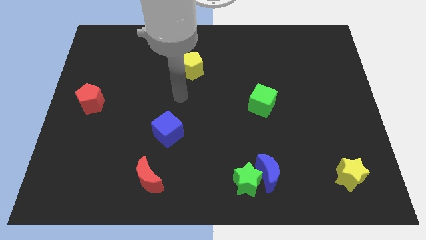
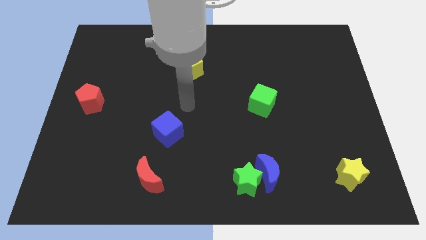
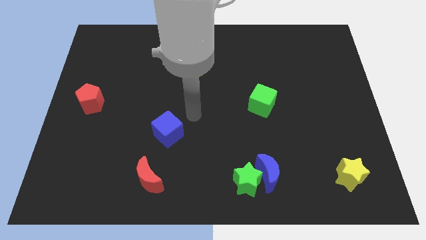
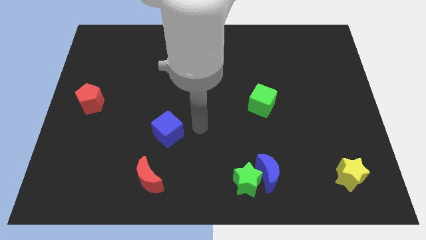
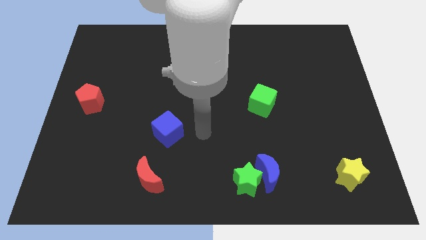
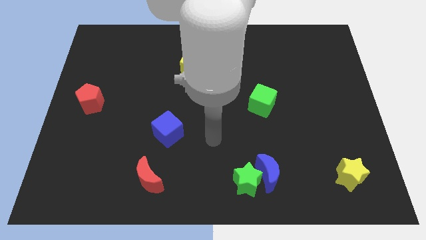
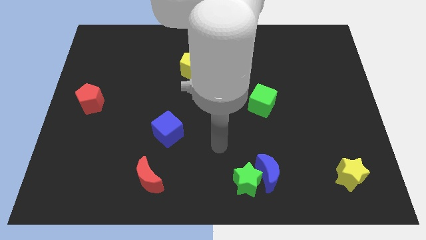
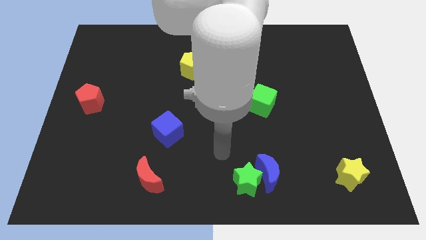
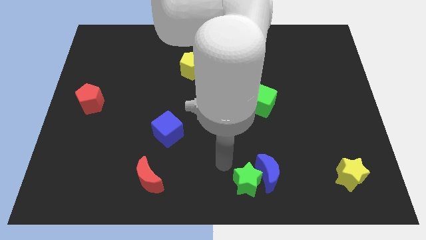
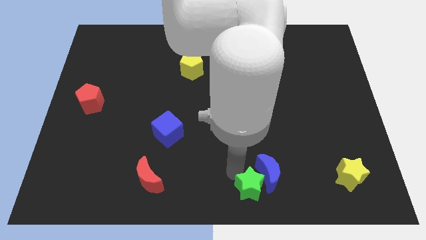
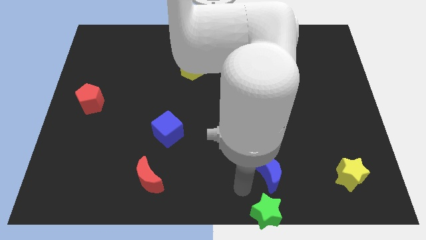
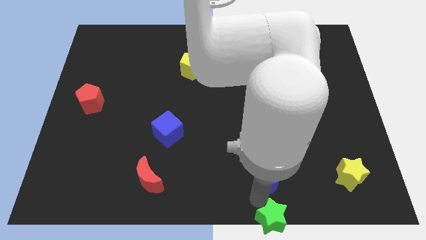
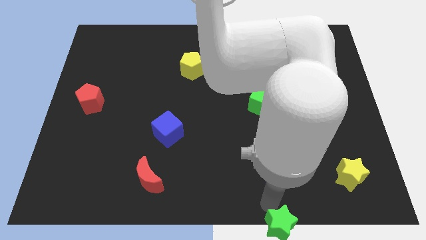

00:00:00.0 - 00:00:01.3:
move the blue moon away from the green star

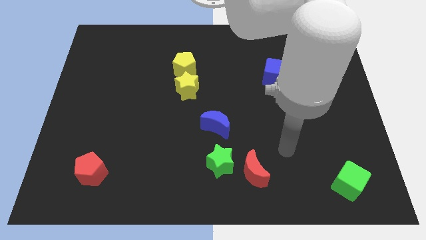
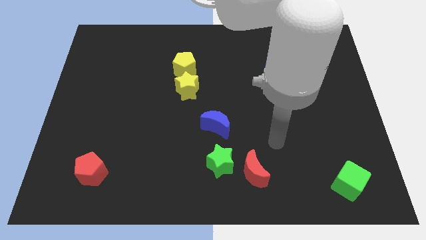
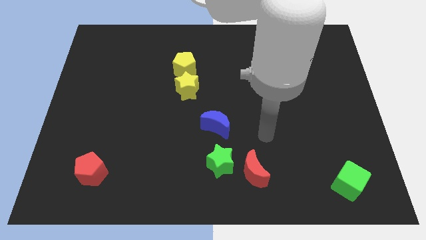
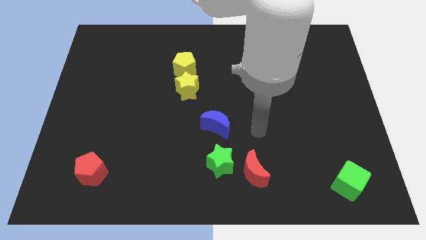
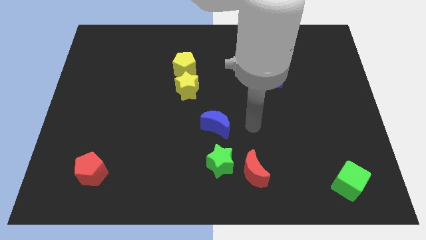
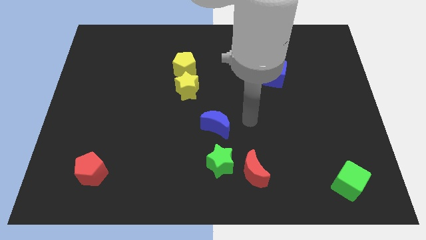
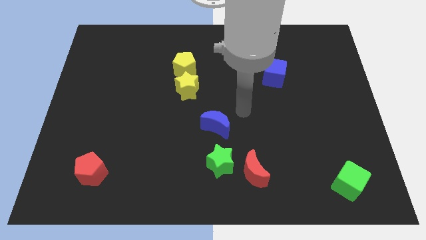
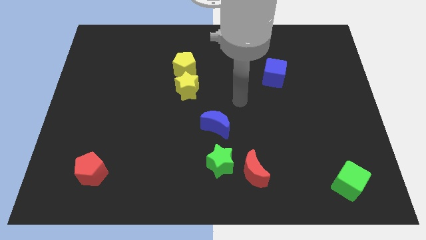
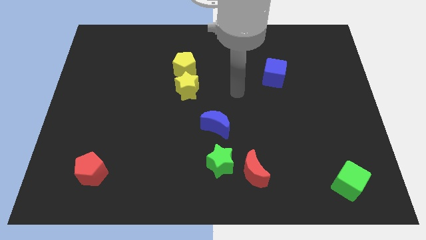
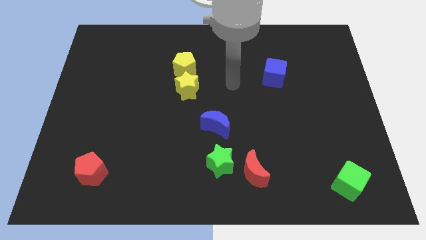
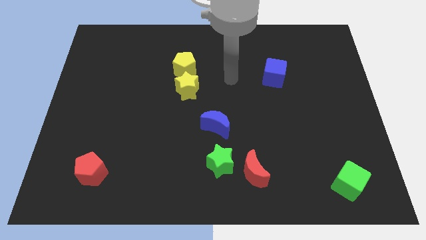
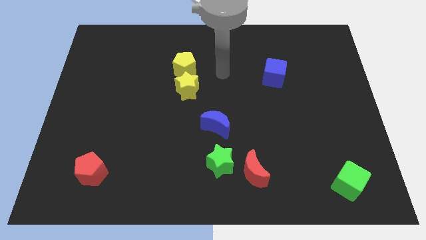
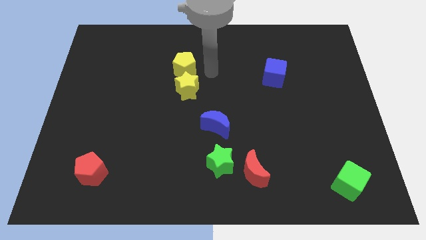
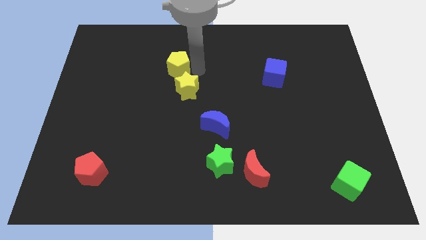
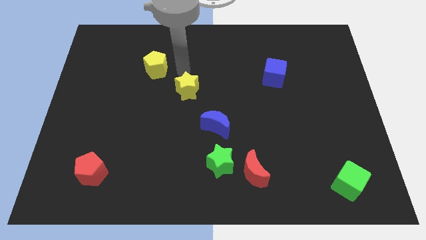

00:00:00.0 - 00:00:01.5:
separate the yellow star from the yellow pentagon

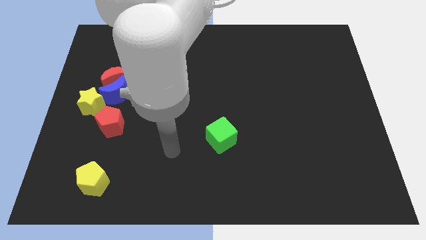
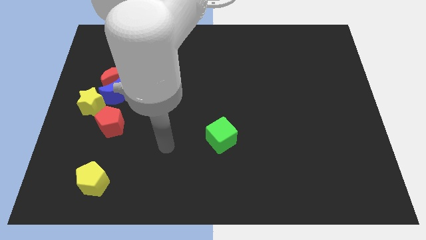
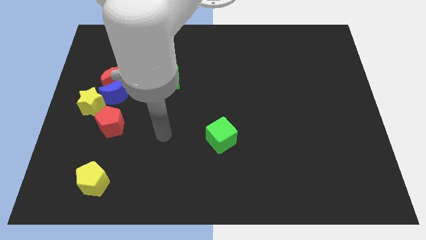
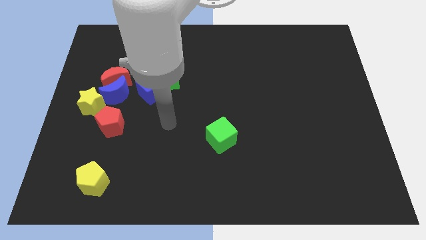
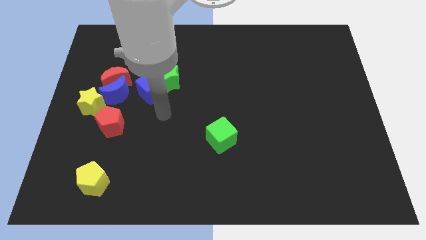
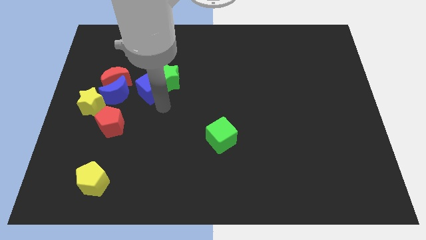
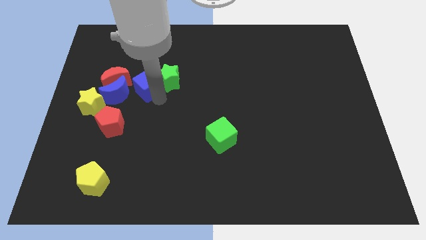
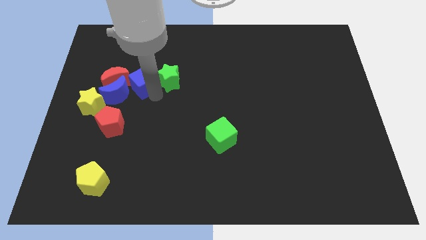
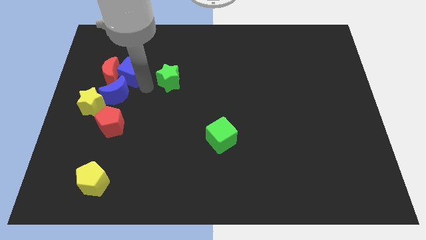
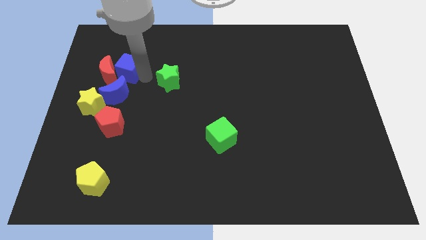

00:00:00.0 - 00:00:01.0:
pull the green star apart from the blue cube

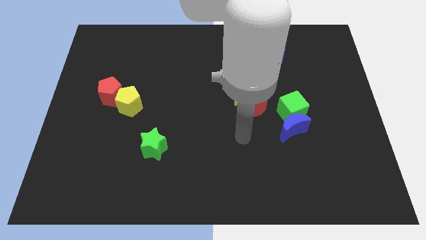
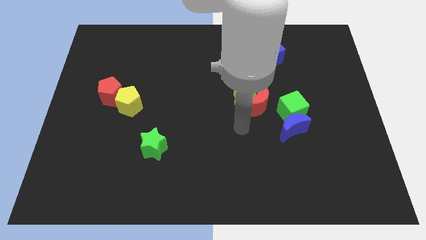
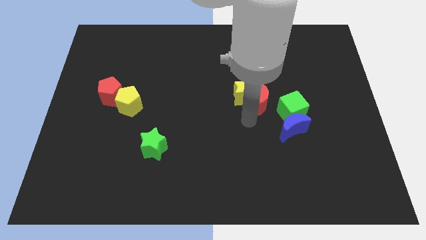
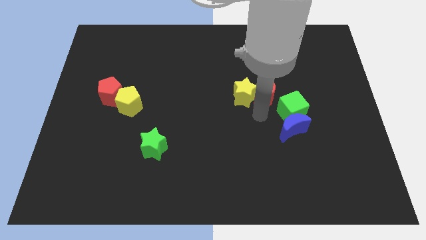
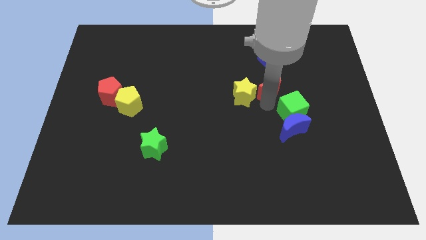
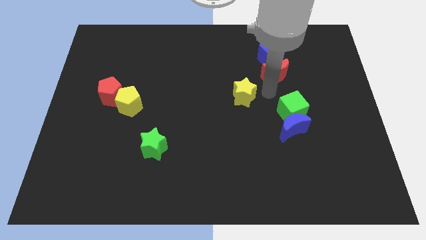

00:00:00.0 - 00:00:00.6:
pull the yellow star apart from the red moon

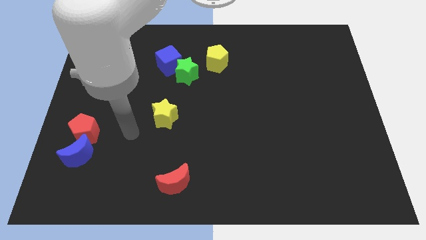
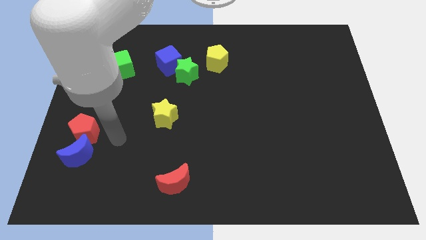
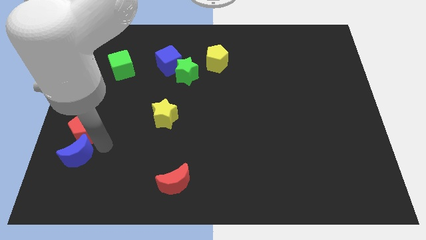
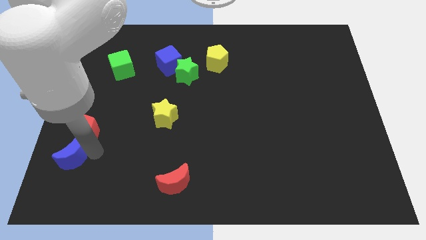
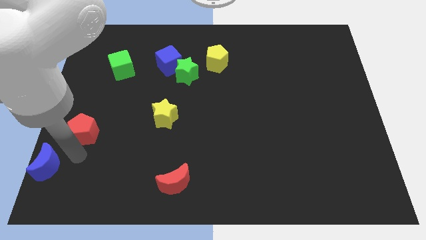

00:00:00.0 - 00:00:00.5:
move the red pentagon away from the blue moon

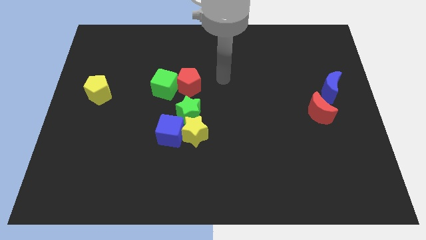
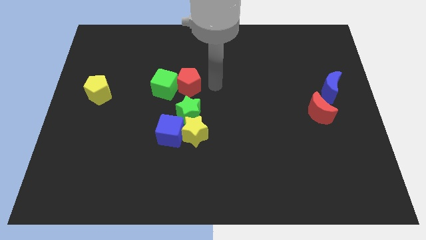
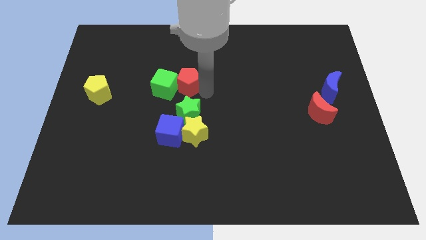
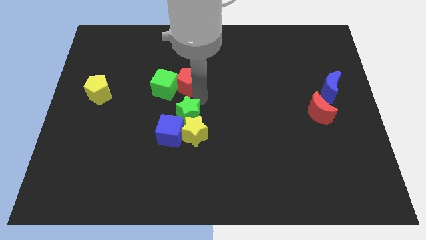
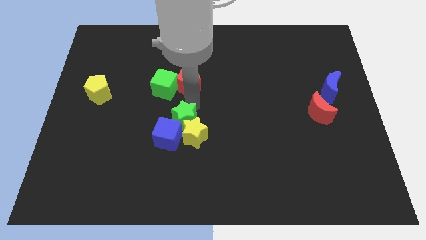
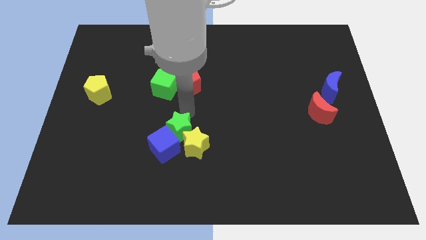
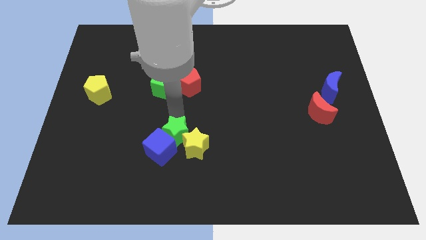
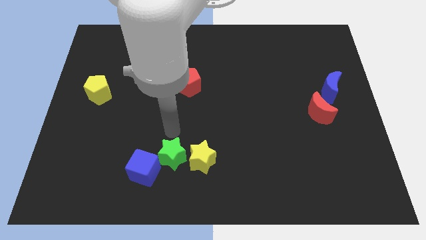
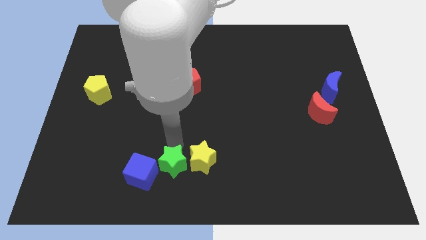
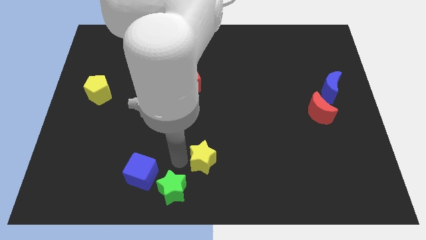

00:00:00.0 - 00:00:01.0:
move the yellow star away from the blue cube and green star

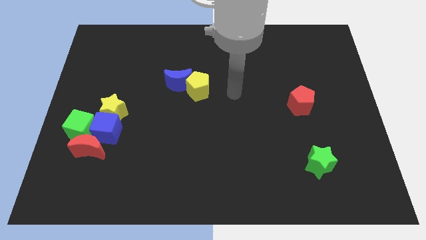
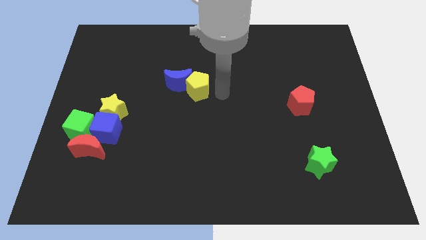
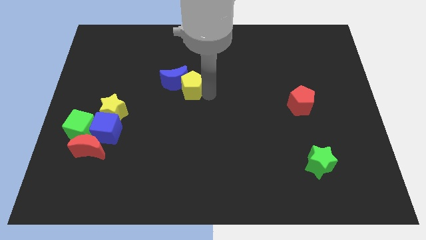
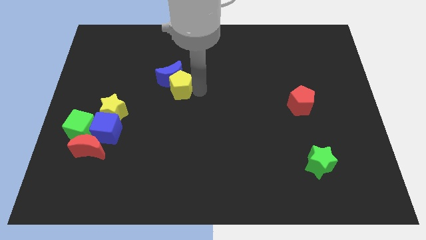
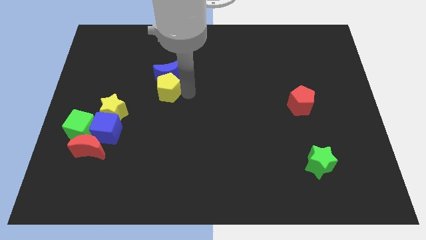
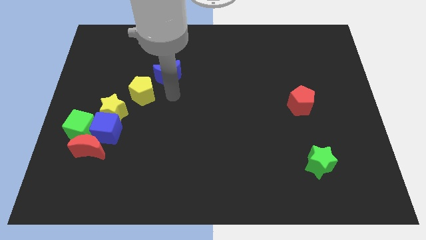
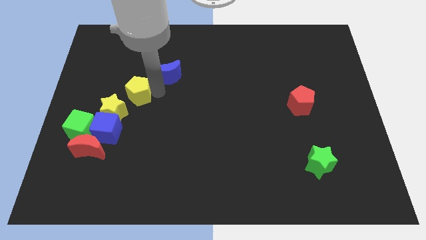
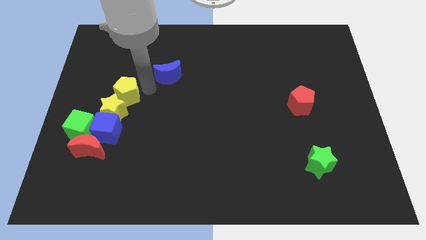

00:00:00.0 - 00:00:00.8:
pull the blue moon apart from the yellow pentagon

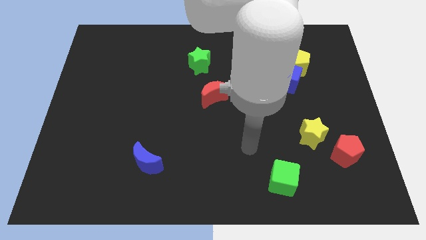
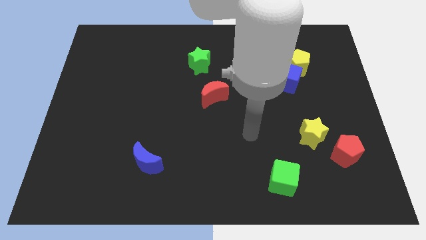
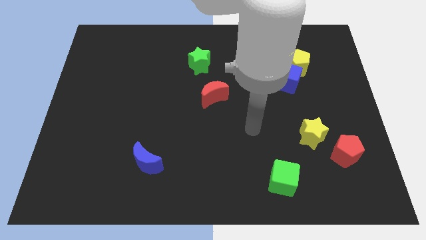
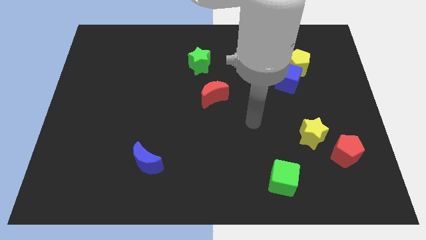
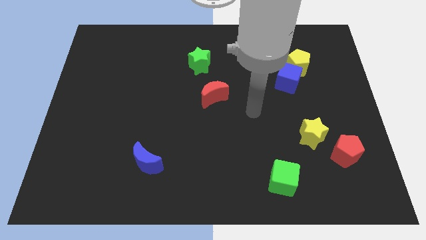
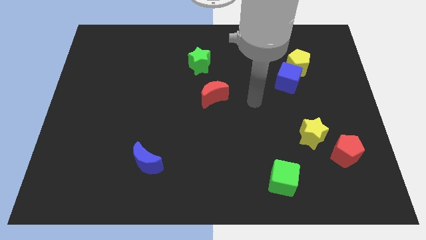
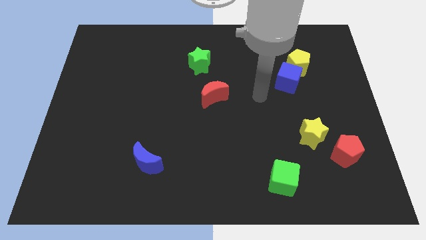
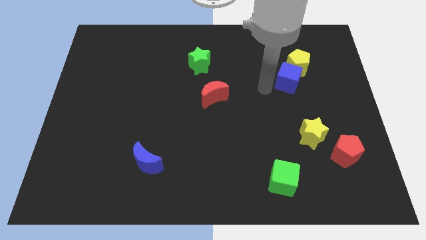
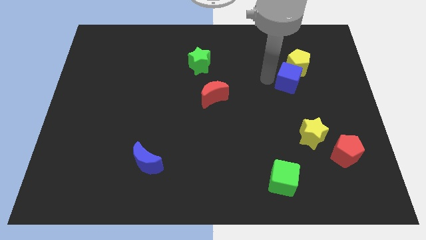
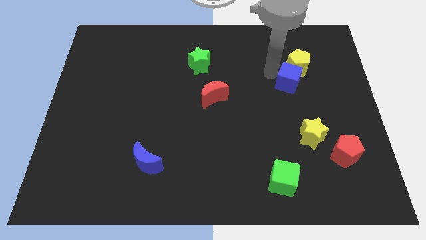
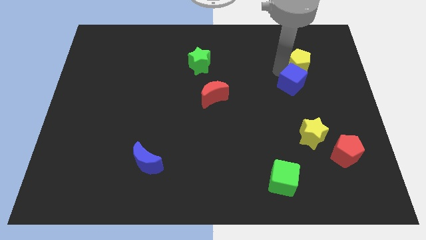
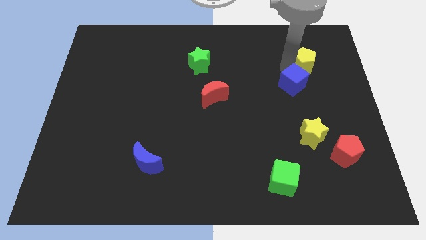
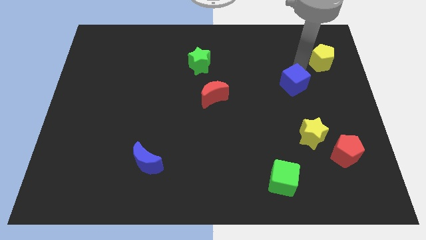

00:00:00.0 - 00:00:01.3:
separate the blue cube from the yellow pentagon

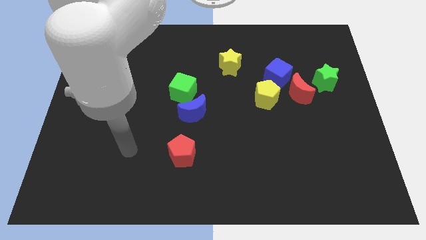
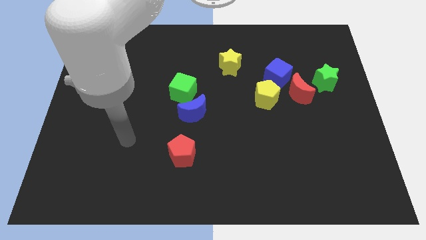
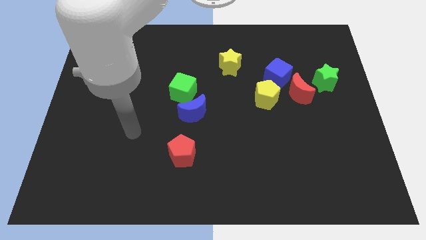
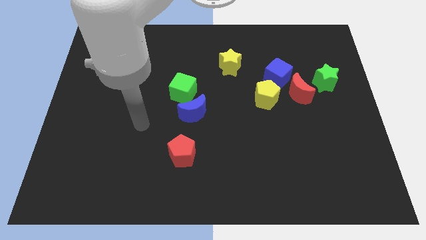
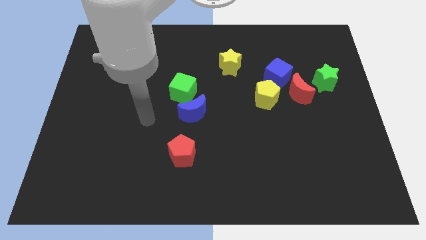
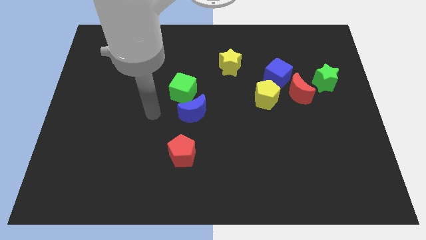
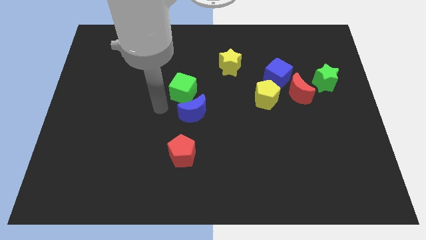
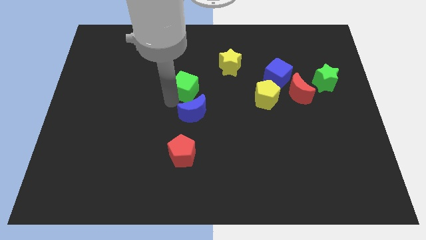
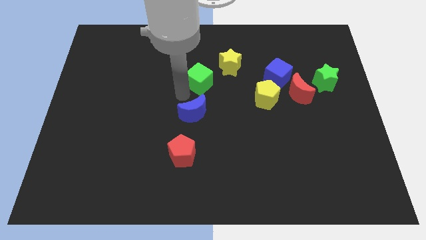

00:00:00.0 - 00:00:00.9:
separate the blue moon from the green cube

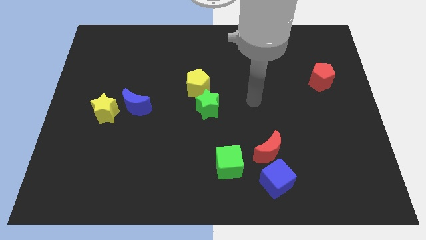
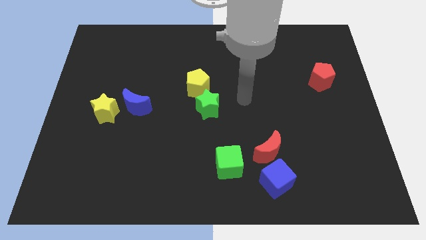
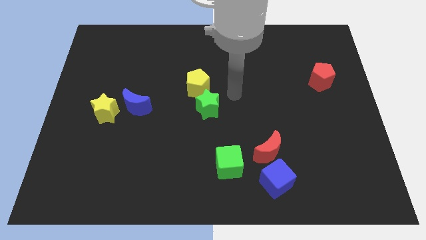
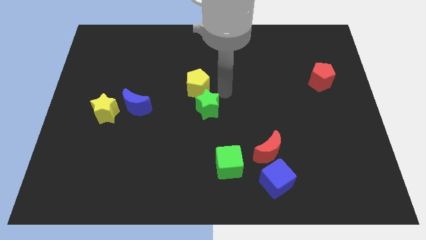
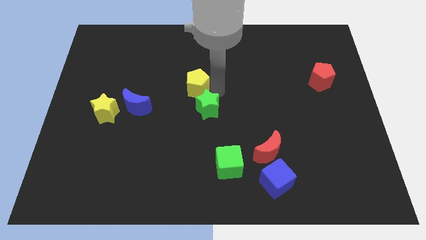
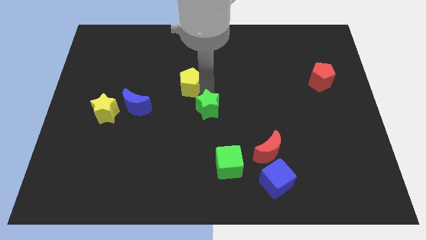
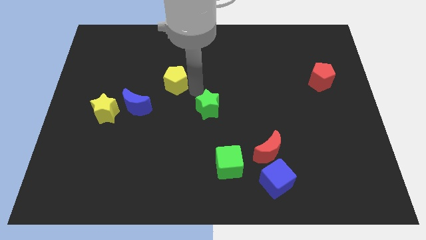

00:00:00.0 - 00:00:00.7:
separate the green star from the yellow pentagon
